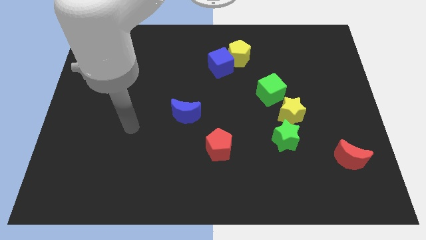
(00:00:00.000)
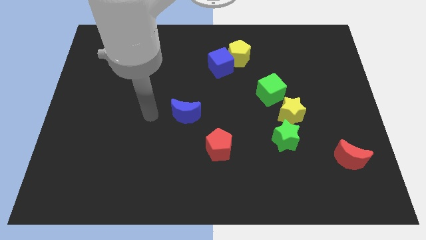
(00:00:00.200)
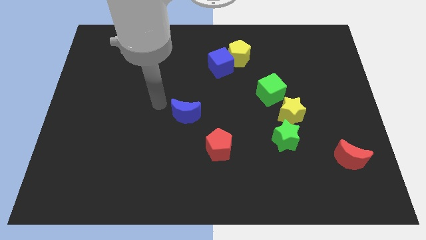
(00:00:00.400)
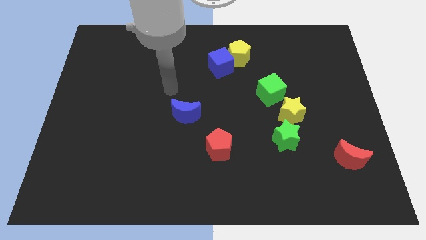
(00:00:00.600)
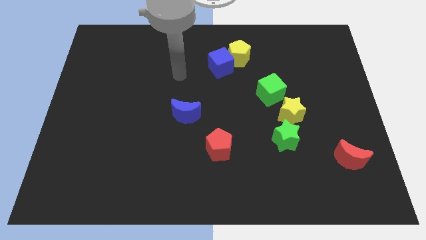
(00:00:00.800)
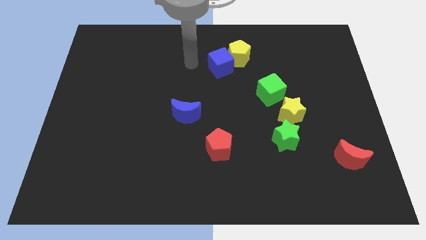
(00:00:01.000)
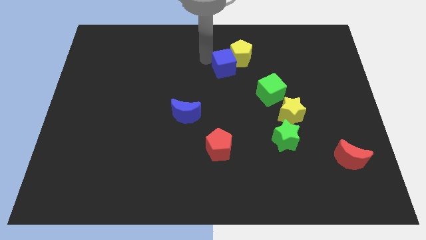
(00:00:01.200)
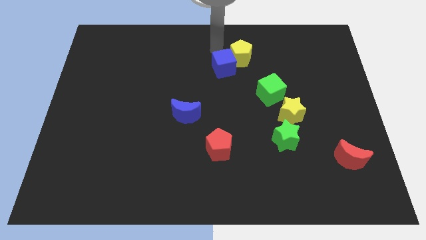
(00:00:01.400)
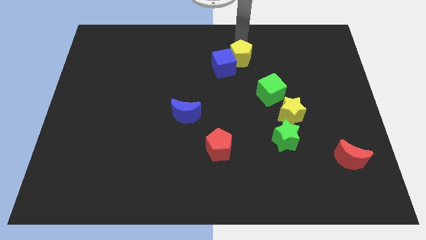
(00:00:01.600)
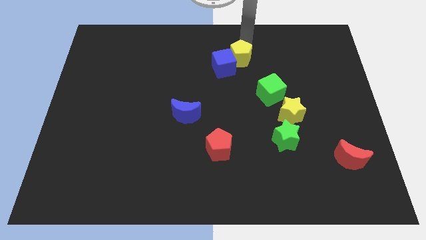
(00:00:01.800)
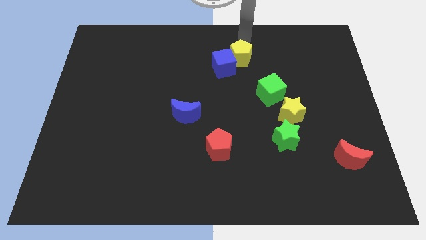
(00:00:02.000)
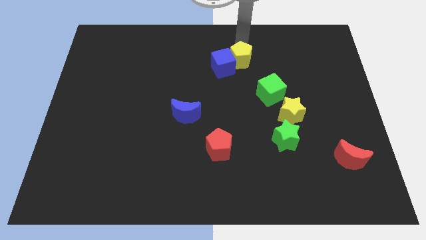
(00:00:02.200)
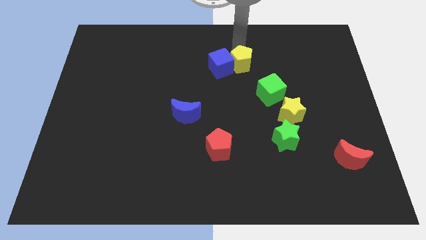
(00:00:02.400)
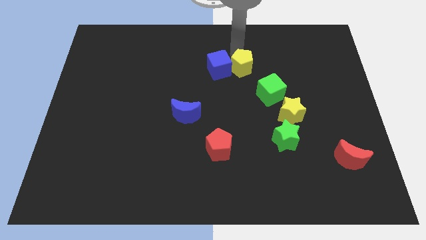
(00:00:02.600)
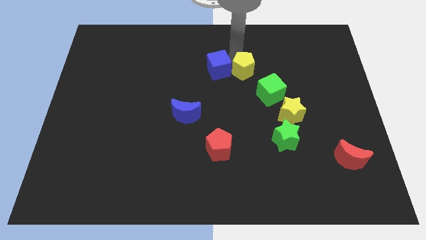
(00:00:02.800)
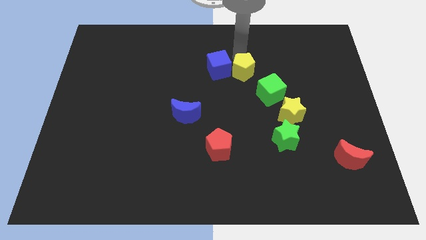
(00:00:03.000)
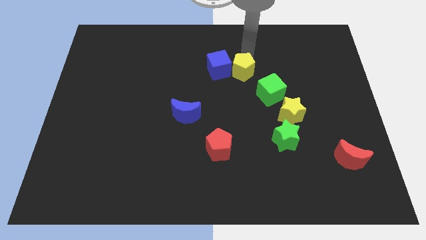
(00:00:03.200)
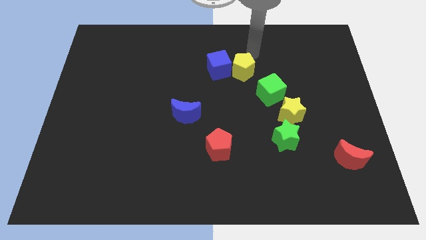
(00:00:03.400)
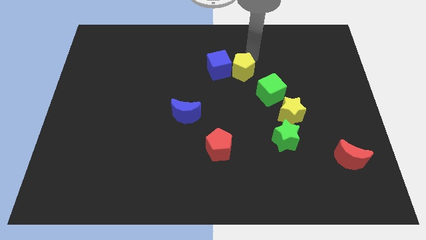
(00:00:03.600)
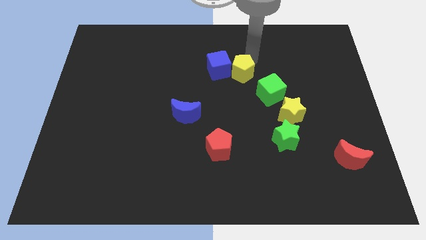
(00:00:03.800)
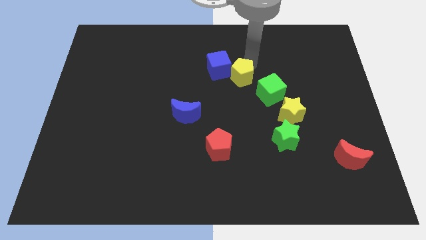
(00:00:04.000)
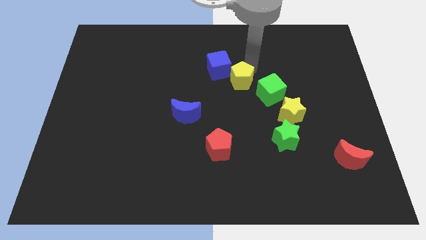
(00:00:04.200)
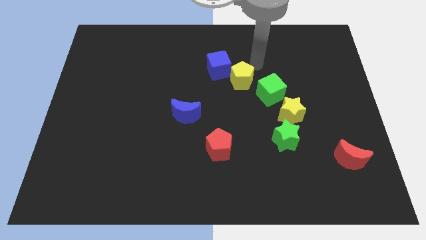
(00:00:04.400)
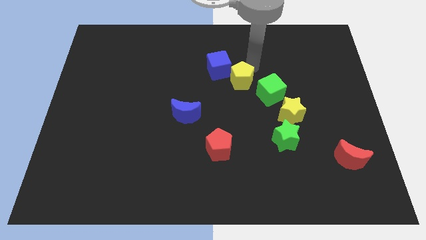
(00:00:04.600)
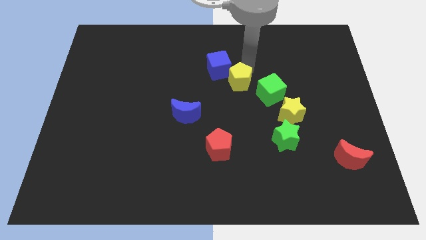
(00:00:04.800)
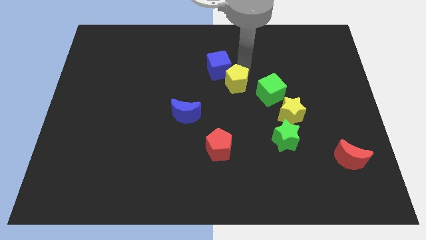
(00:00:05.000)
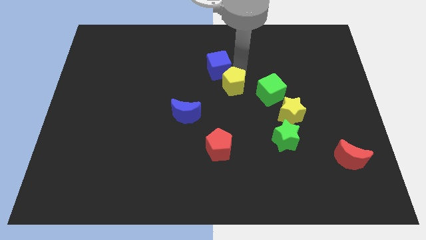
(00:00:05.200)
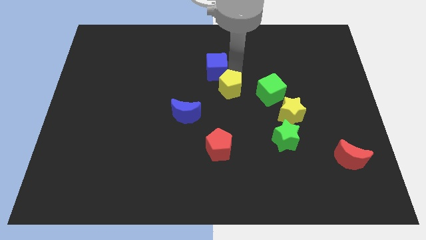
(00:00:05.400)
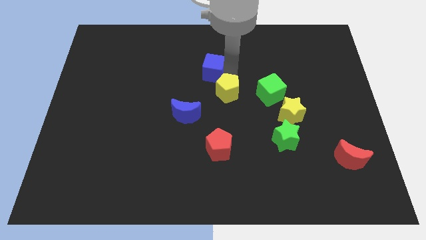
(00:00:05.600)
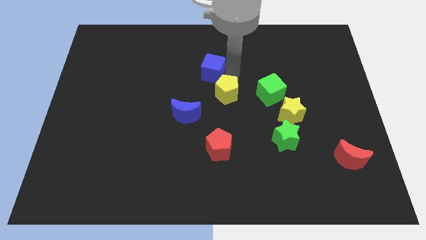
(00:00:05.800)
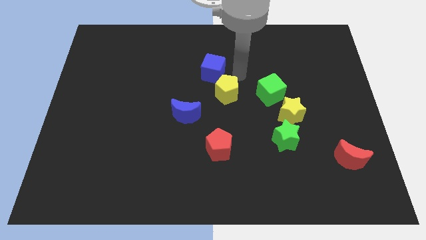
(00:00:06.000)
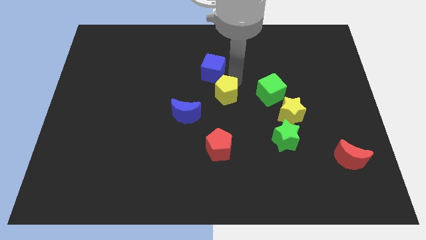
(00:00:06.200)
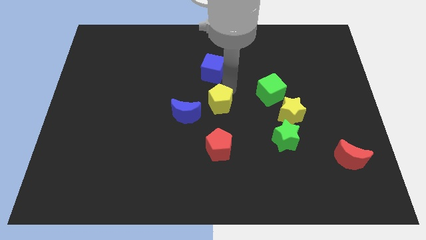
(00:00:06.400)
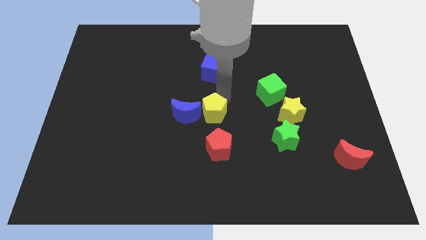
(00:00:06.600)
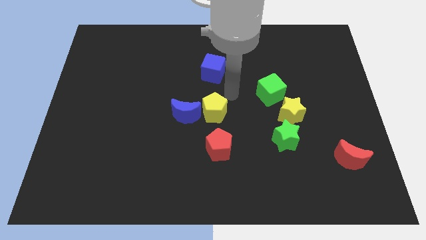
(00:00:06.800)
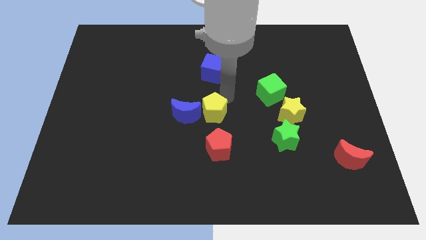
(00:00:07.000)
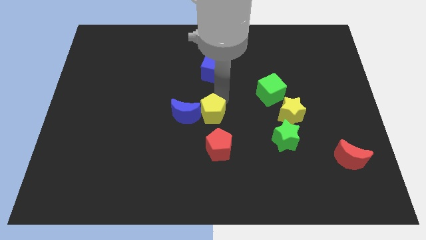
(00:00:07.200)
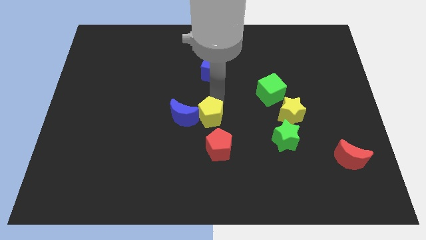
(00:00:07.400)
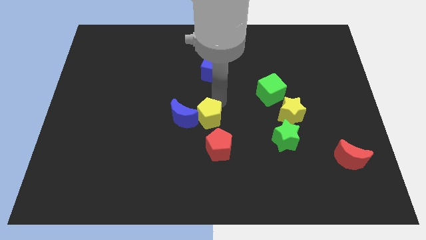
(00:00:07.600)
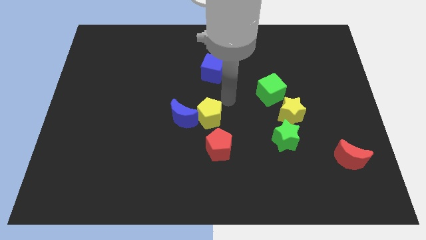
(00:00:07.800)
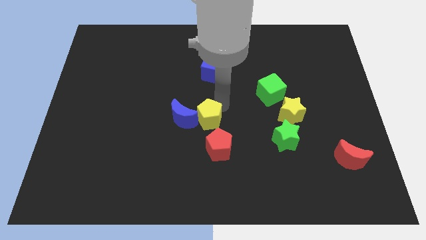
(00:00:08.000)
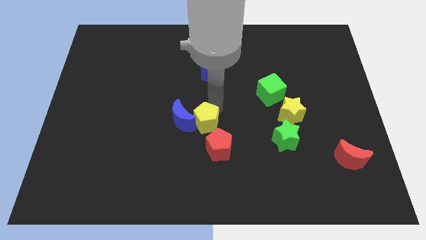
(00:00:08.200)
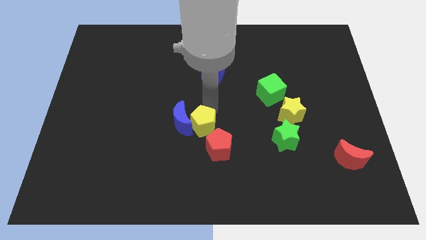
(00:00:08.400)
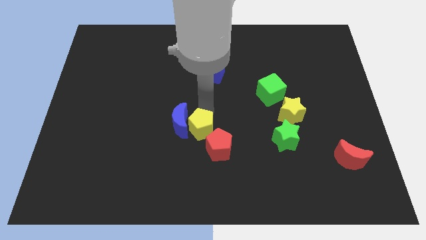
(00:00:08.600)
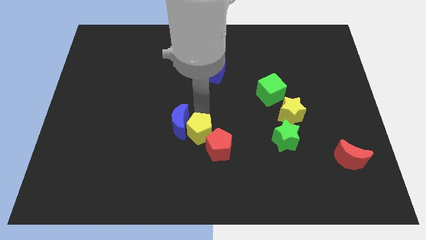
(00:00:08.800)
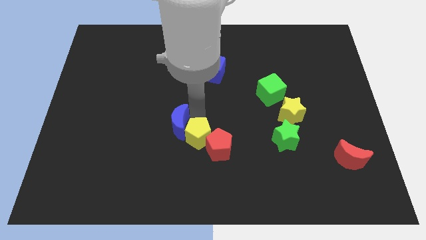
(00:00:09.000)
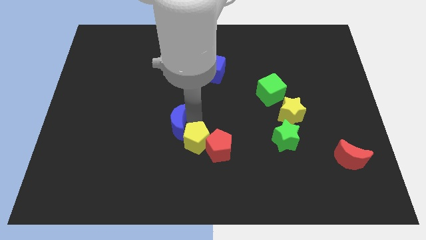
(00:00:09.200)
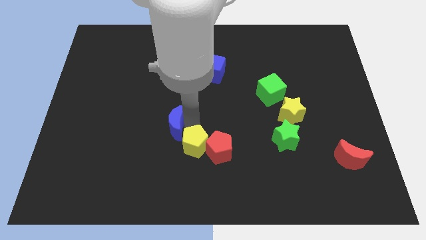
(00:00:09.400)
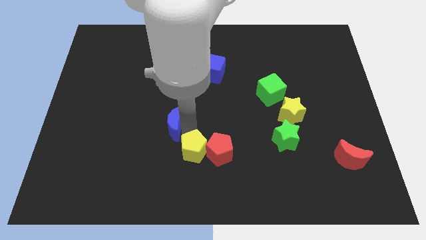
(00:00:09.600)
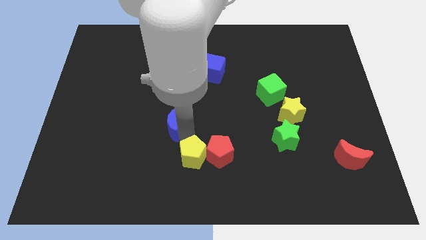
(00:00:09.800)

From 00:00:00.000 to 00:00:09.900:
slide the yellow pentagon to the bottom

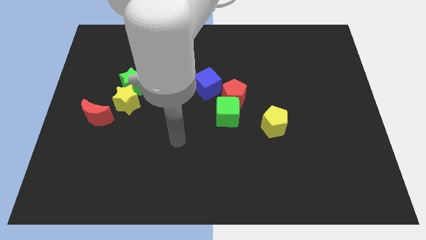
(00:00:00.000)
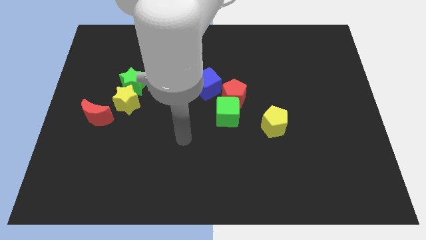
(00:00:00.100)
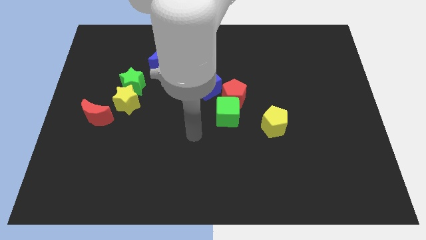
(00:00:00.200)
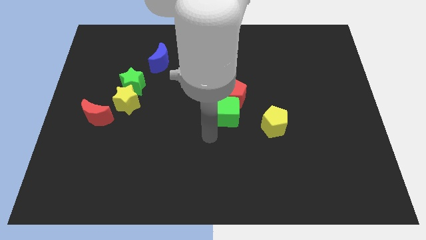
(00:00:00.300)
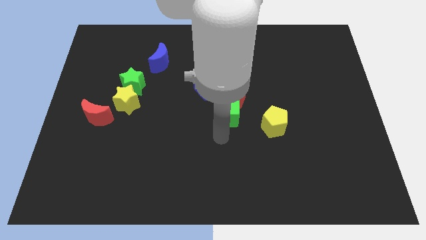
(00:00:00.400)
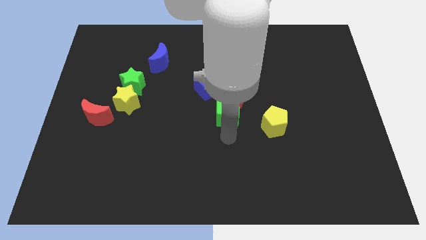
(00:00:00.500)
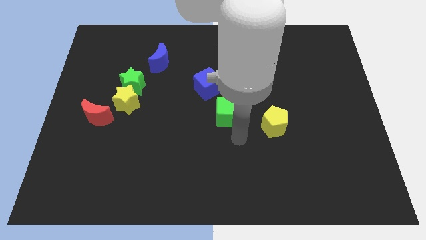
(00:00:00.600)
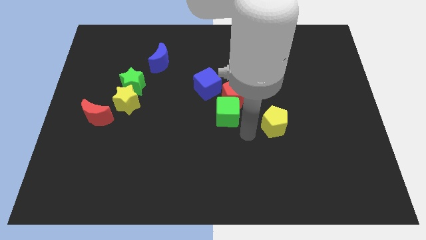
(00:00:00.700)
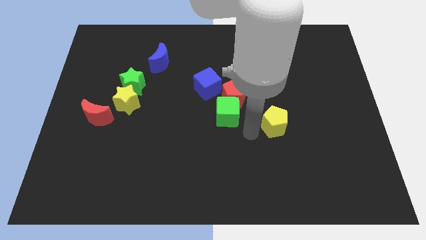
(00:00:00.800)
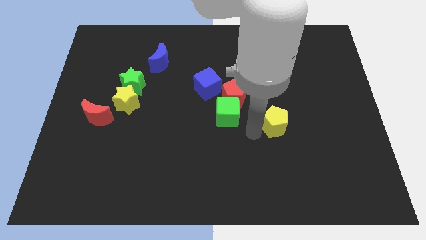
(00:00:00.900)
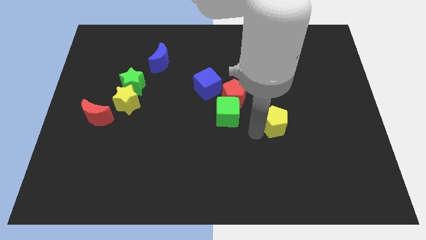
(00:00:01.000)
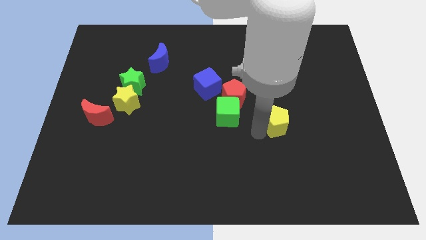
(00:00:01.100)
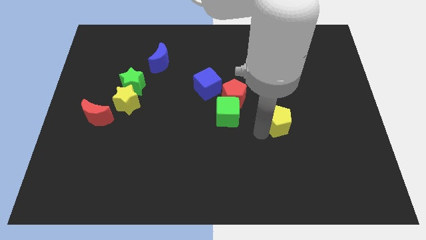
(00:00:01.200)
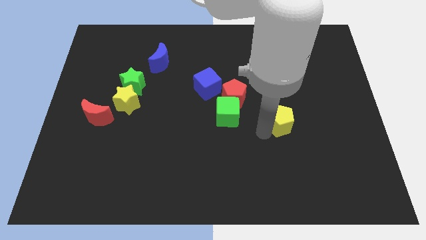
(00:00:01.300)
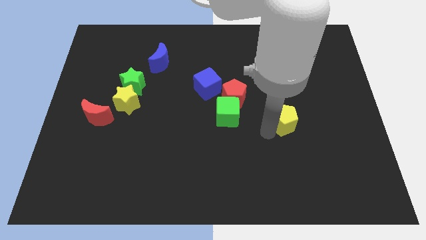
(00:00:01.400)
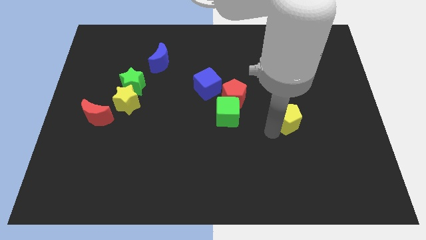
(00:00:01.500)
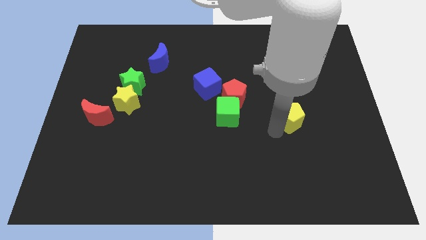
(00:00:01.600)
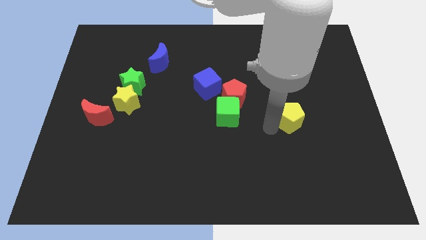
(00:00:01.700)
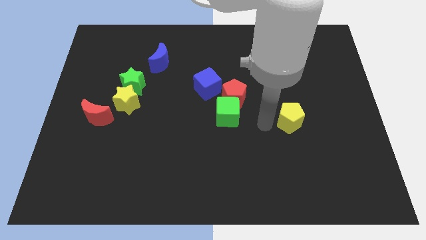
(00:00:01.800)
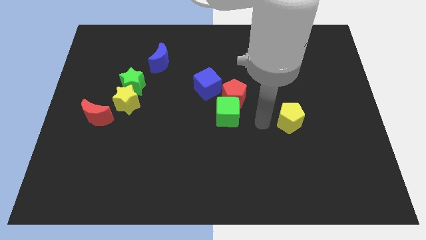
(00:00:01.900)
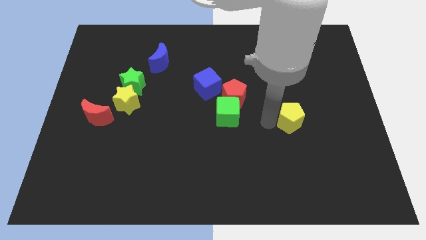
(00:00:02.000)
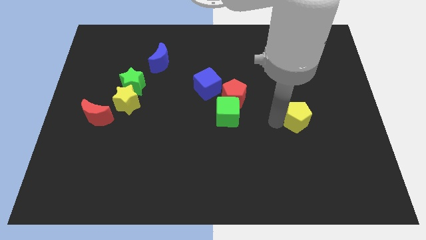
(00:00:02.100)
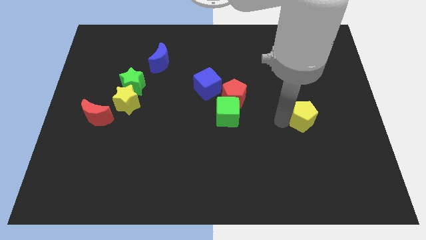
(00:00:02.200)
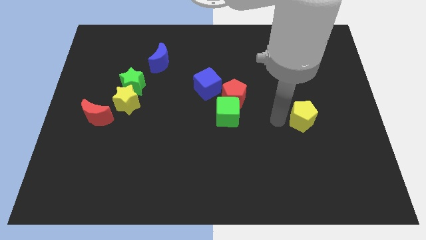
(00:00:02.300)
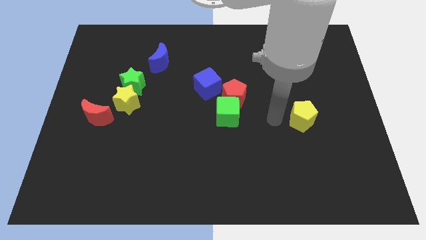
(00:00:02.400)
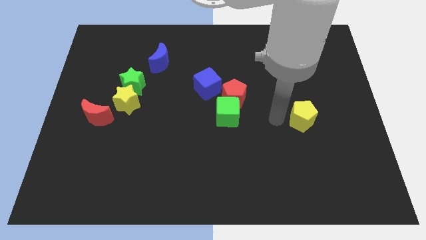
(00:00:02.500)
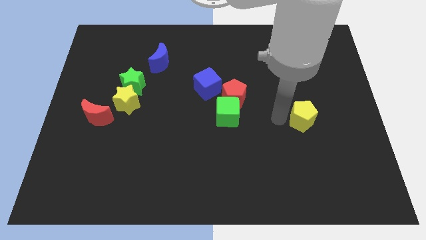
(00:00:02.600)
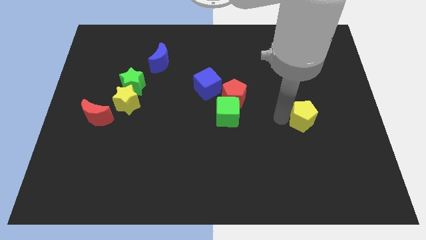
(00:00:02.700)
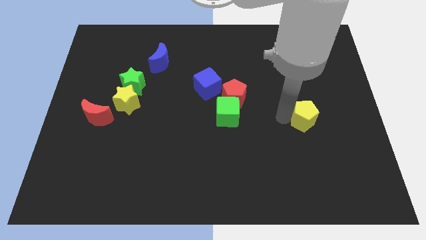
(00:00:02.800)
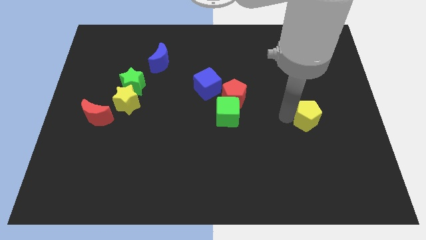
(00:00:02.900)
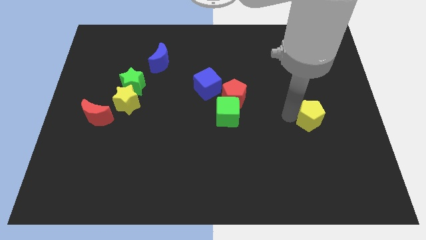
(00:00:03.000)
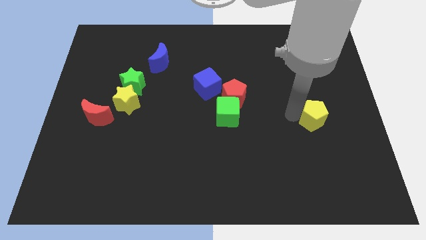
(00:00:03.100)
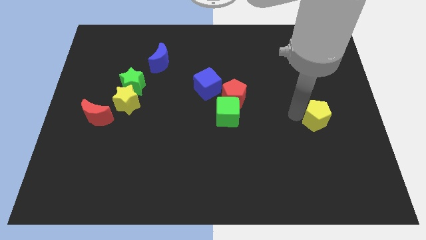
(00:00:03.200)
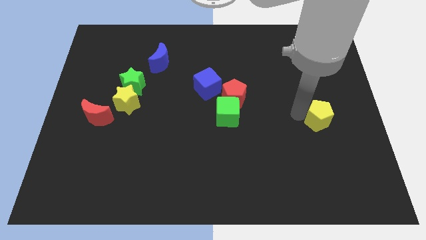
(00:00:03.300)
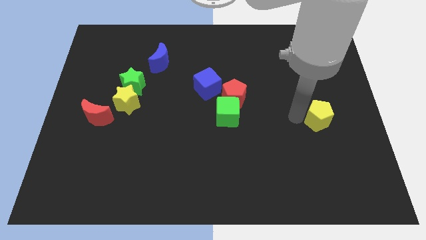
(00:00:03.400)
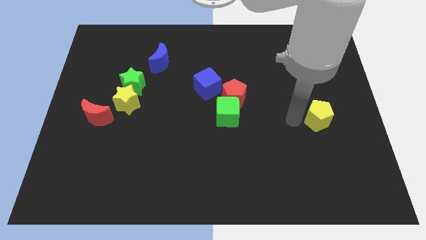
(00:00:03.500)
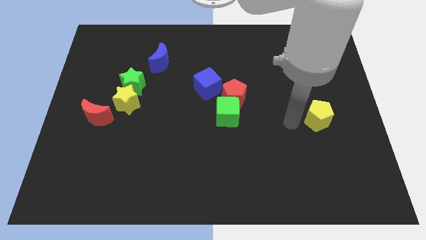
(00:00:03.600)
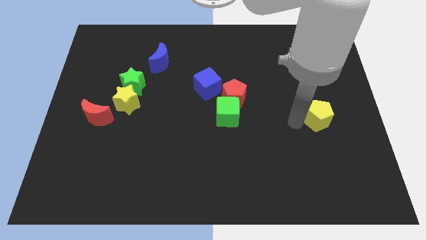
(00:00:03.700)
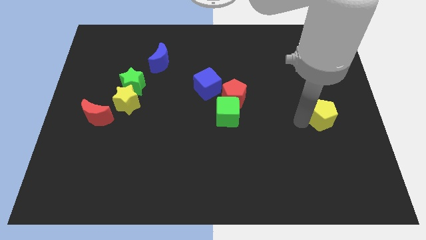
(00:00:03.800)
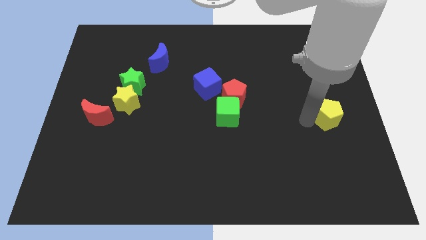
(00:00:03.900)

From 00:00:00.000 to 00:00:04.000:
put the yellow pentagon to the right side
